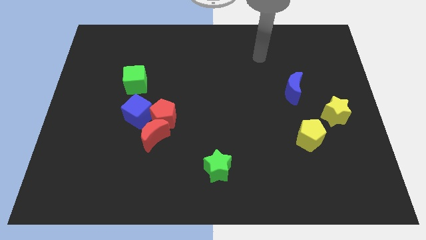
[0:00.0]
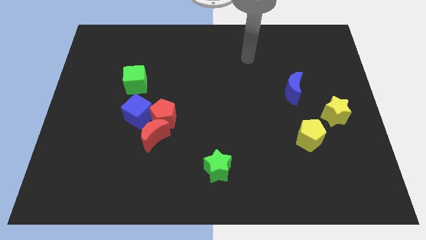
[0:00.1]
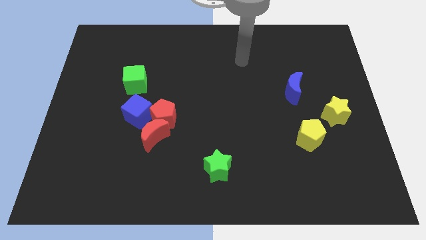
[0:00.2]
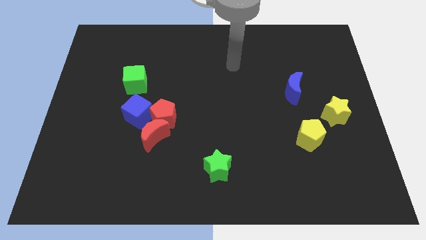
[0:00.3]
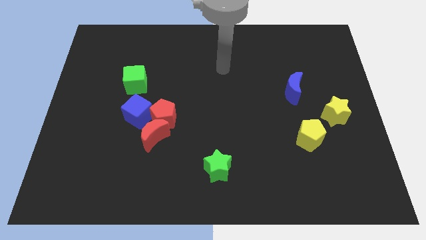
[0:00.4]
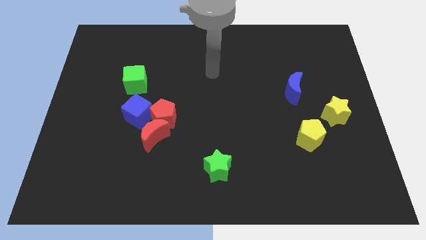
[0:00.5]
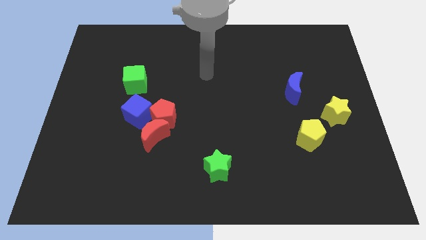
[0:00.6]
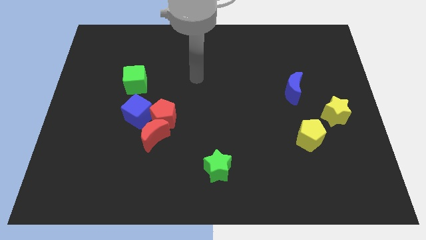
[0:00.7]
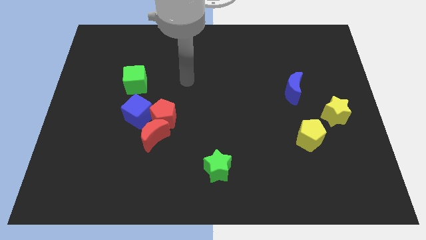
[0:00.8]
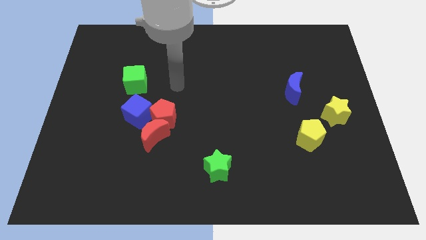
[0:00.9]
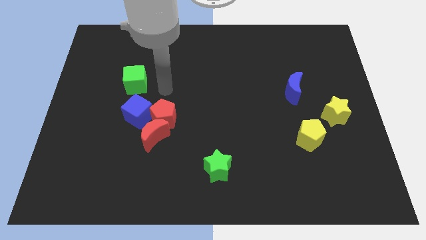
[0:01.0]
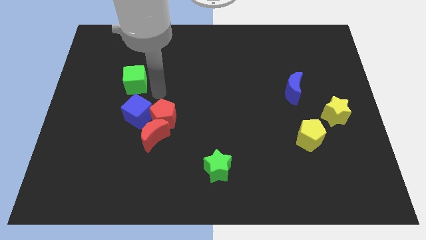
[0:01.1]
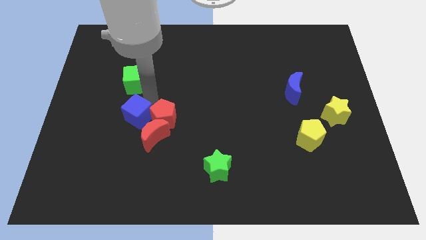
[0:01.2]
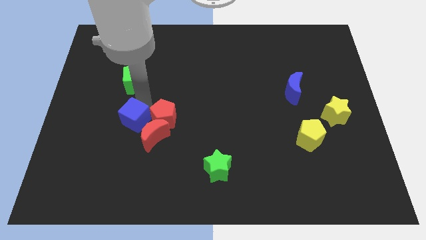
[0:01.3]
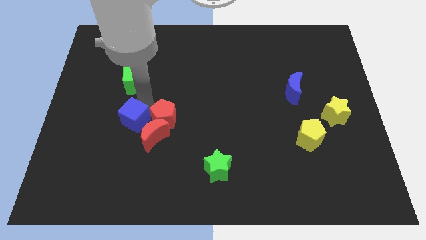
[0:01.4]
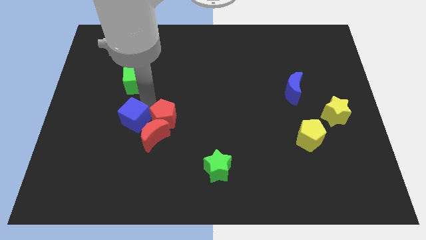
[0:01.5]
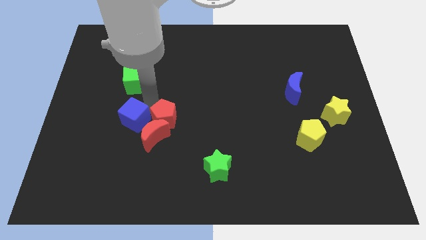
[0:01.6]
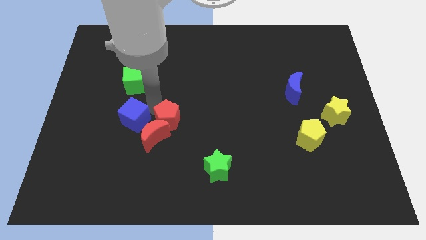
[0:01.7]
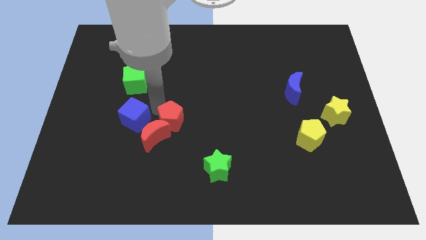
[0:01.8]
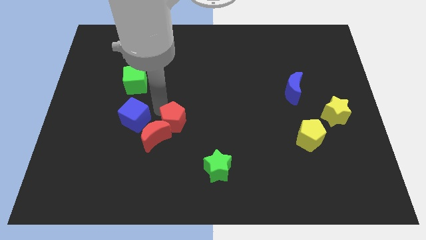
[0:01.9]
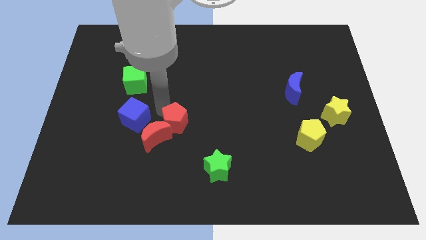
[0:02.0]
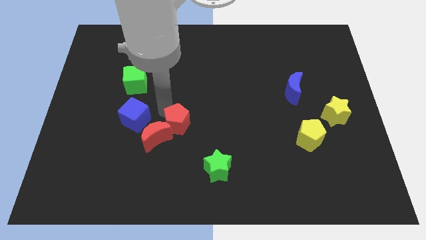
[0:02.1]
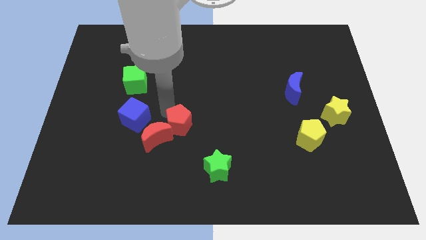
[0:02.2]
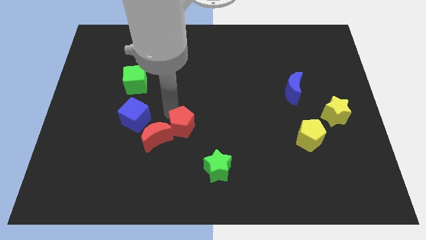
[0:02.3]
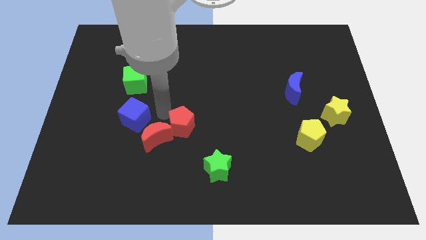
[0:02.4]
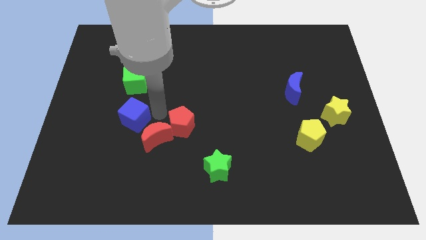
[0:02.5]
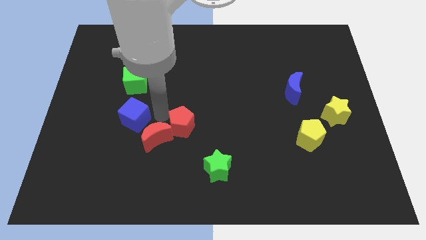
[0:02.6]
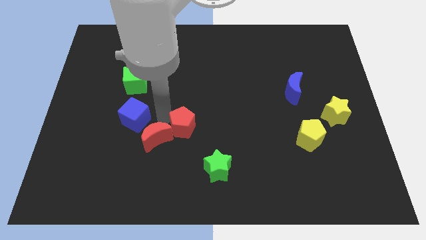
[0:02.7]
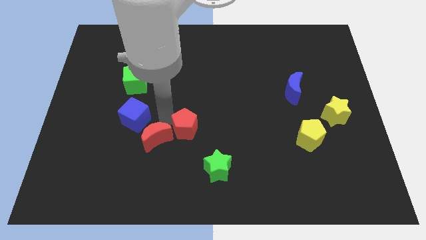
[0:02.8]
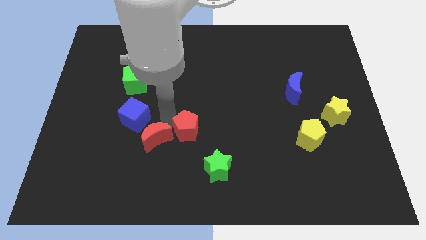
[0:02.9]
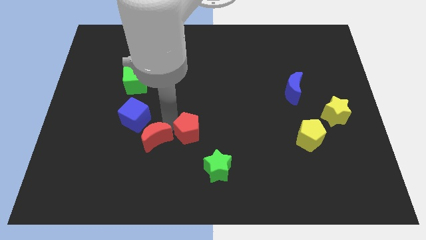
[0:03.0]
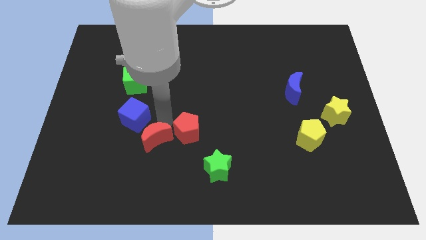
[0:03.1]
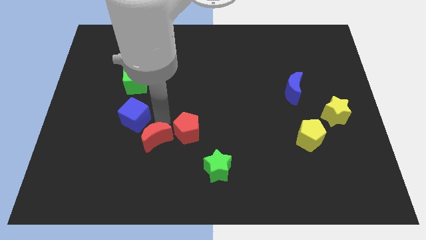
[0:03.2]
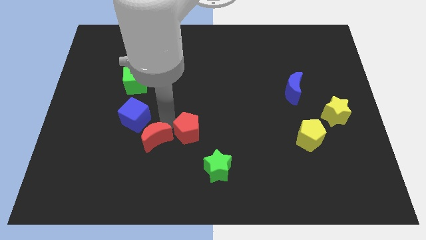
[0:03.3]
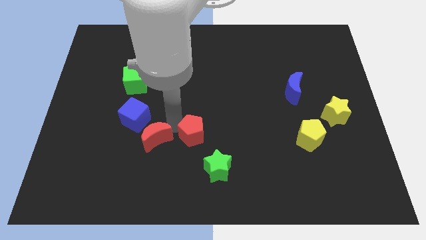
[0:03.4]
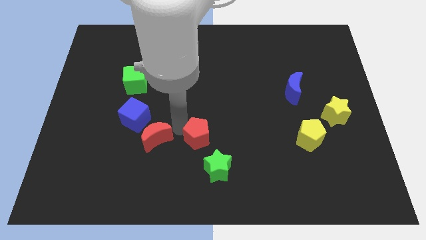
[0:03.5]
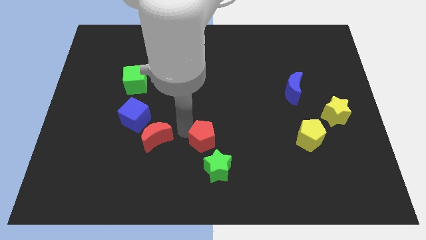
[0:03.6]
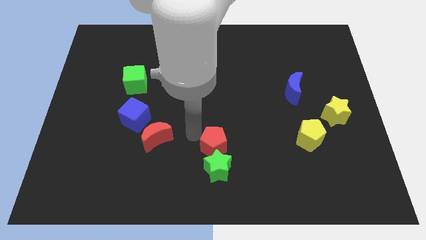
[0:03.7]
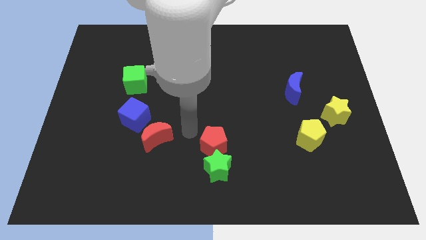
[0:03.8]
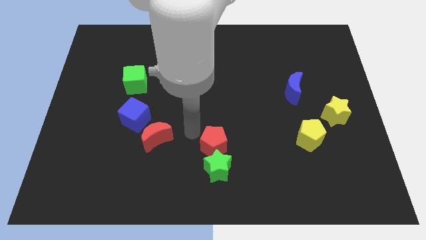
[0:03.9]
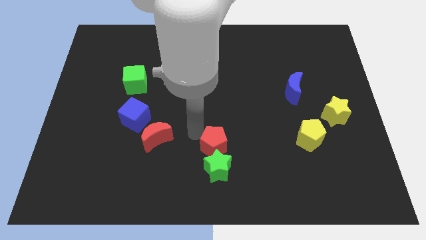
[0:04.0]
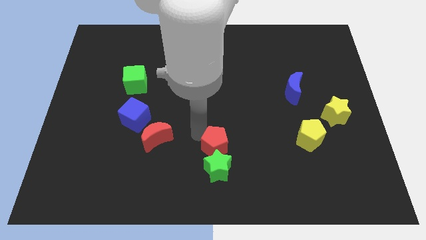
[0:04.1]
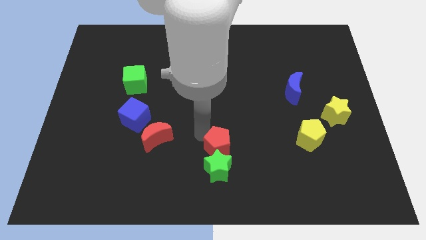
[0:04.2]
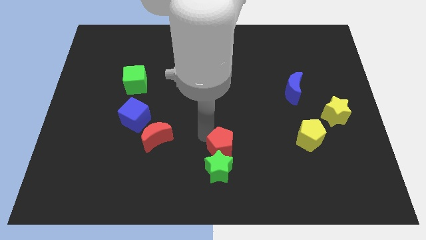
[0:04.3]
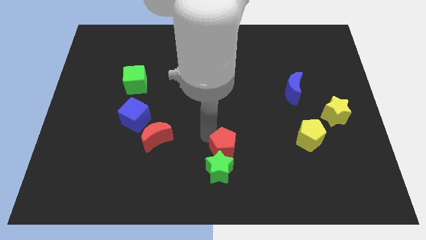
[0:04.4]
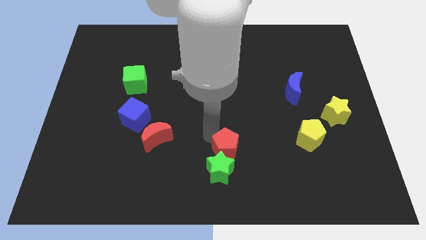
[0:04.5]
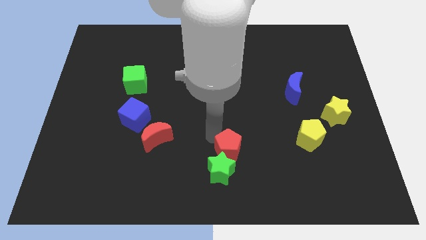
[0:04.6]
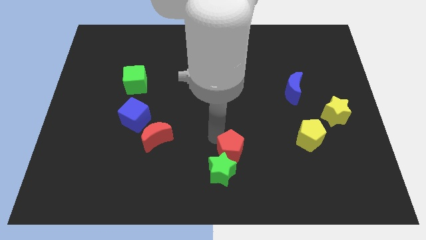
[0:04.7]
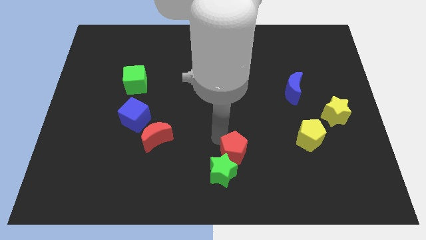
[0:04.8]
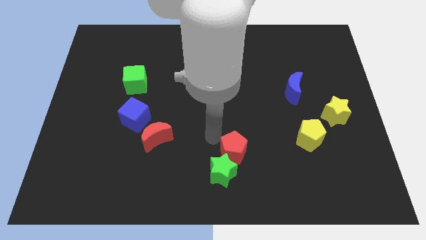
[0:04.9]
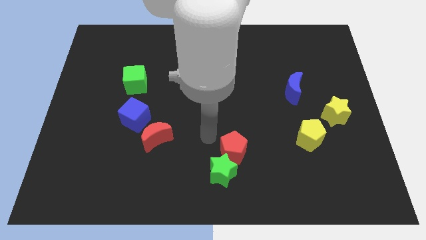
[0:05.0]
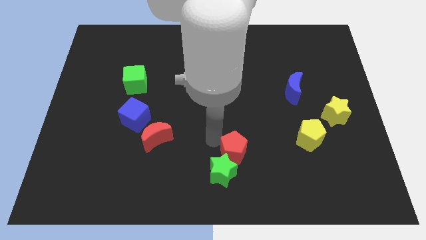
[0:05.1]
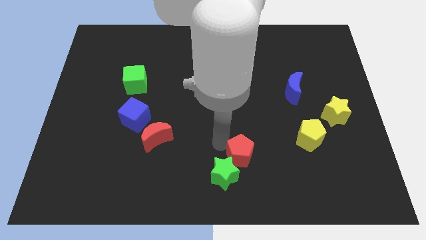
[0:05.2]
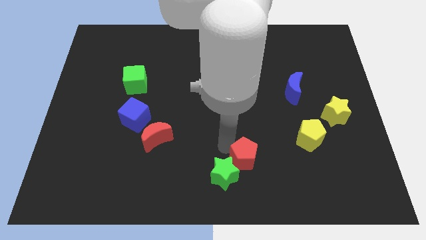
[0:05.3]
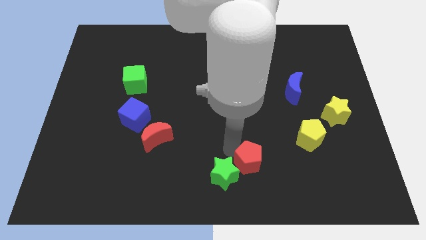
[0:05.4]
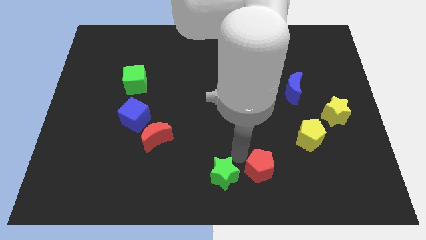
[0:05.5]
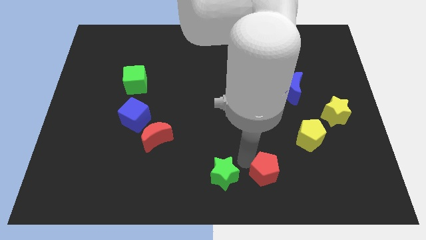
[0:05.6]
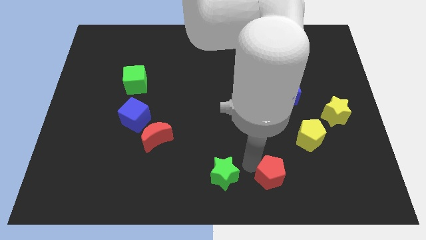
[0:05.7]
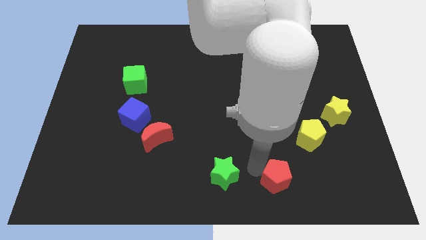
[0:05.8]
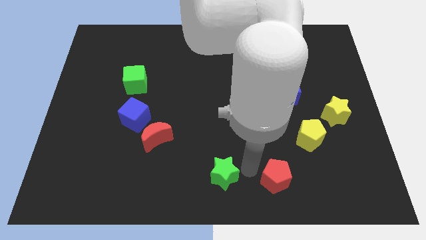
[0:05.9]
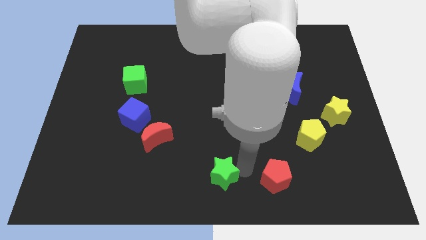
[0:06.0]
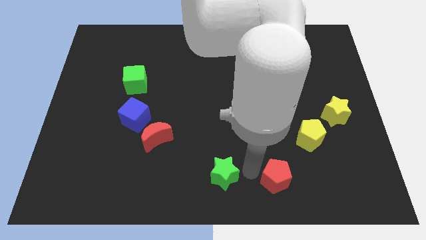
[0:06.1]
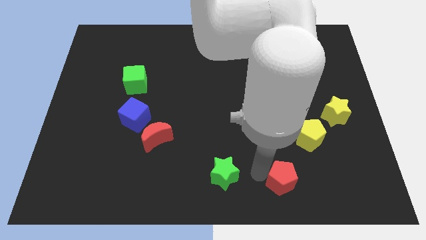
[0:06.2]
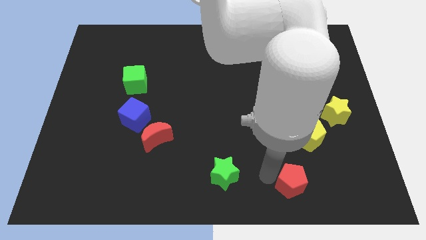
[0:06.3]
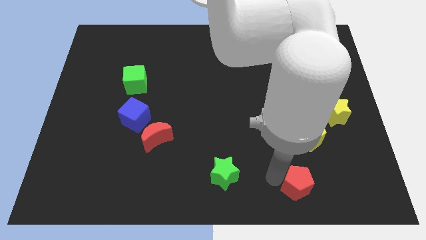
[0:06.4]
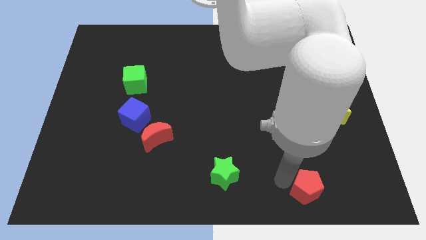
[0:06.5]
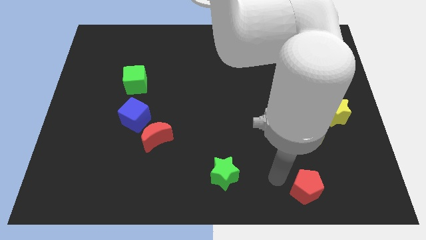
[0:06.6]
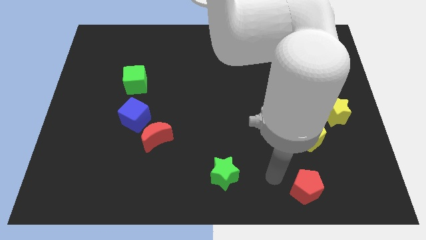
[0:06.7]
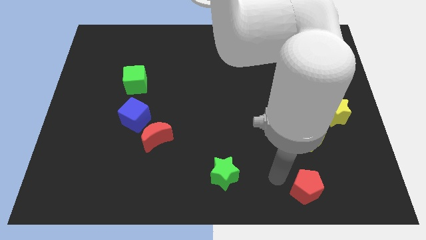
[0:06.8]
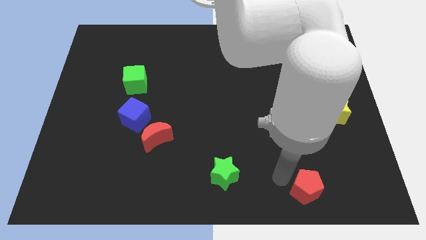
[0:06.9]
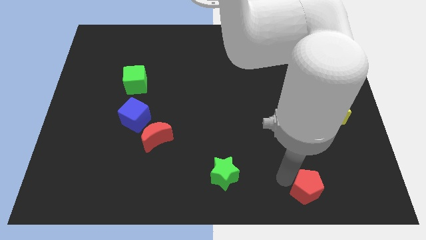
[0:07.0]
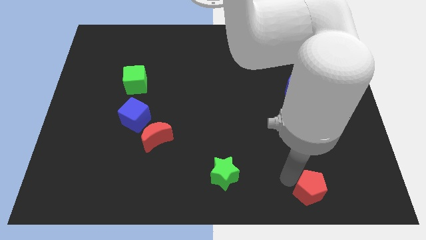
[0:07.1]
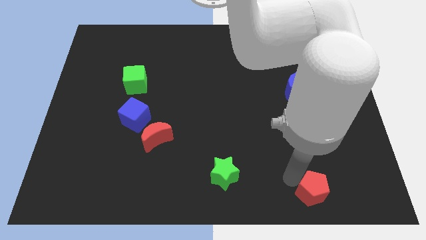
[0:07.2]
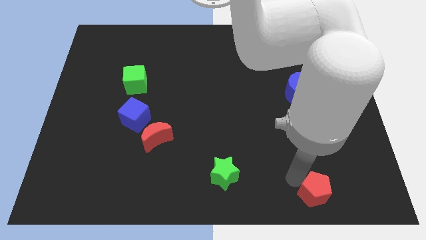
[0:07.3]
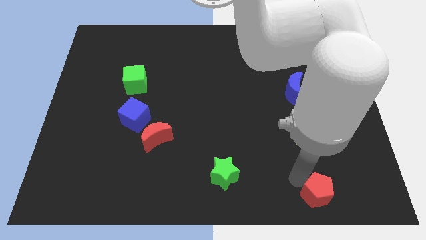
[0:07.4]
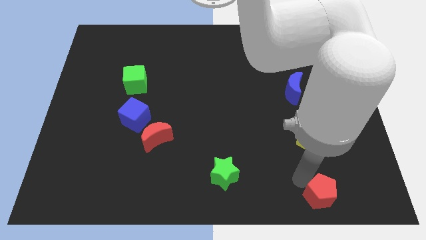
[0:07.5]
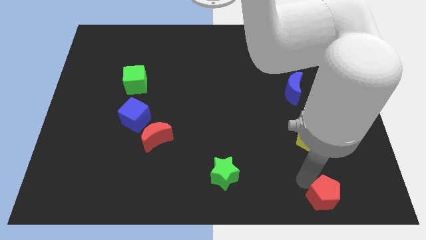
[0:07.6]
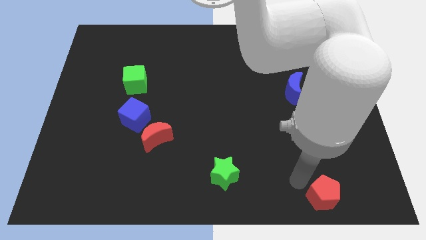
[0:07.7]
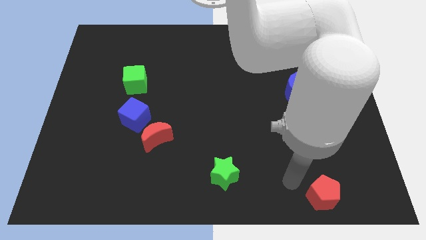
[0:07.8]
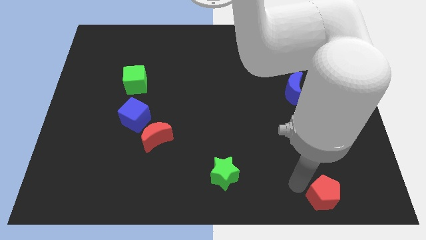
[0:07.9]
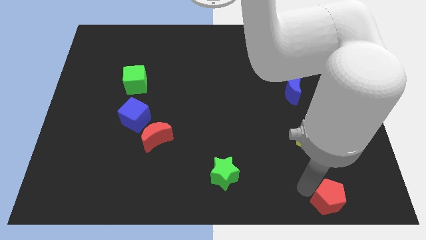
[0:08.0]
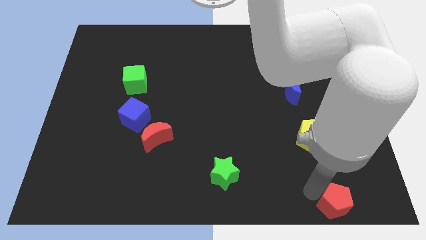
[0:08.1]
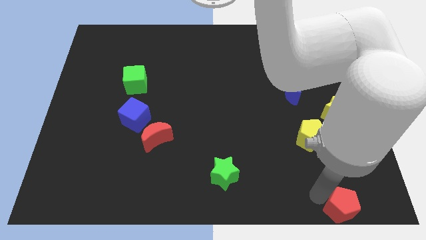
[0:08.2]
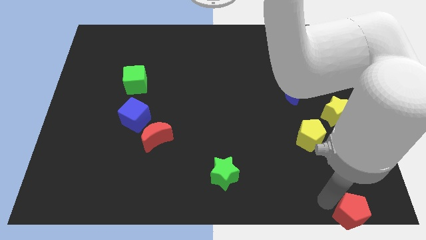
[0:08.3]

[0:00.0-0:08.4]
put the red pentagon to the bottom right corner
